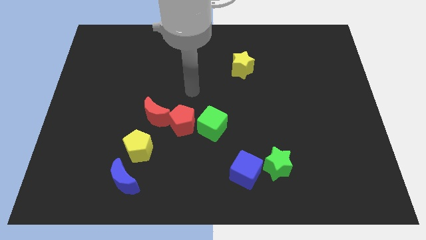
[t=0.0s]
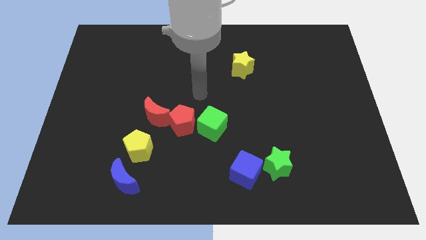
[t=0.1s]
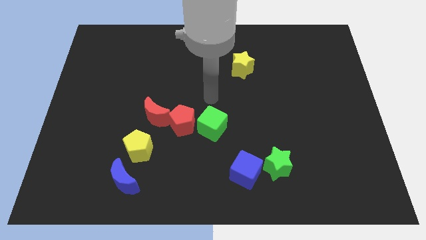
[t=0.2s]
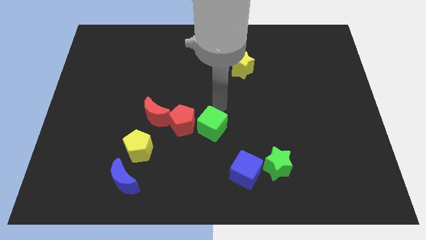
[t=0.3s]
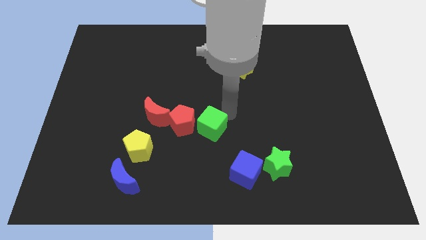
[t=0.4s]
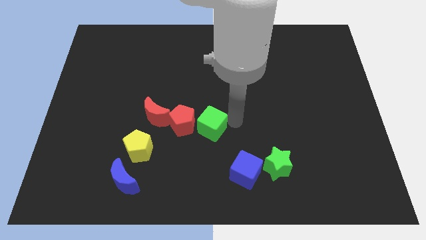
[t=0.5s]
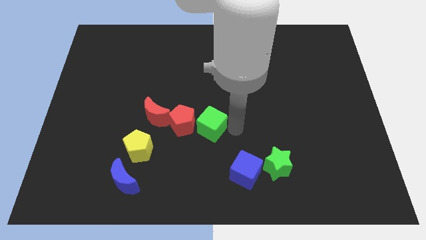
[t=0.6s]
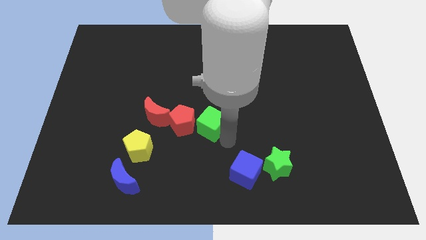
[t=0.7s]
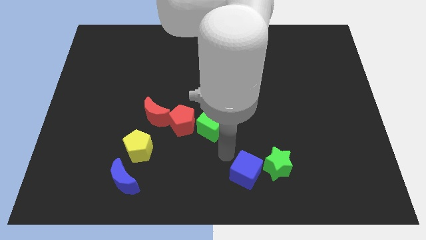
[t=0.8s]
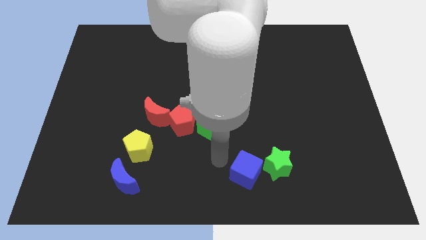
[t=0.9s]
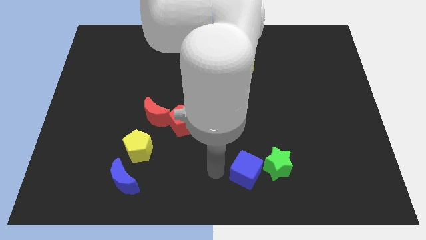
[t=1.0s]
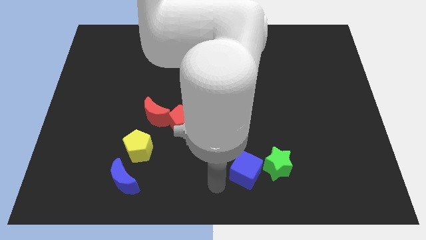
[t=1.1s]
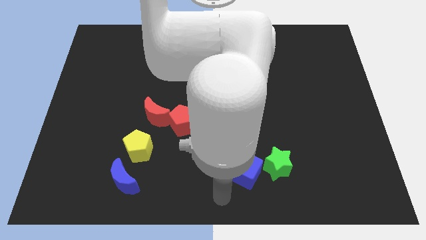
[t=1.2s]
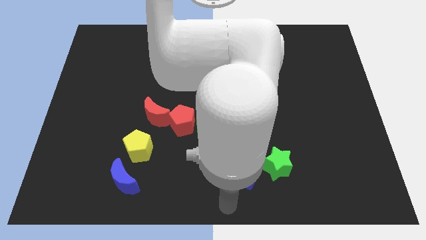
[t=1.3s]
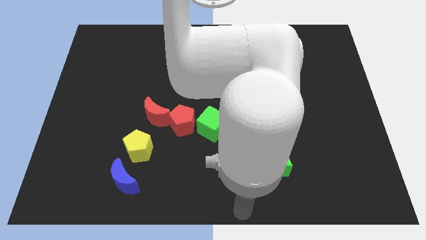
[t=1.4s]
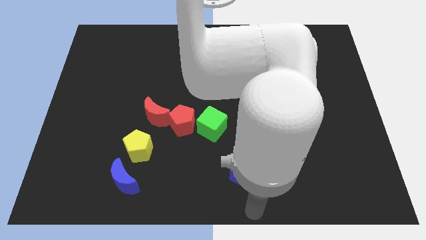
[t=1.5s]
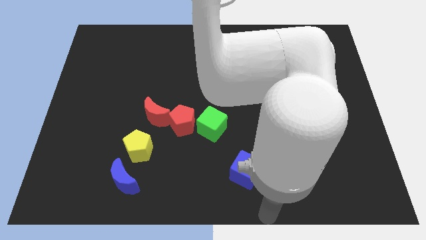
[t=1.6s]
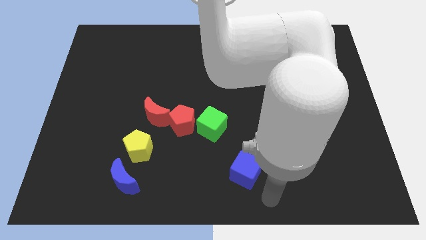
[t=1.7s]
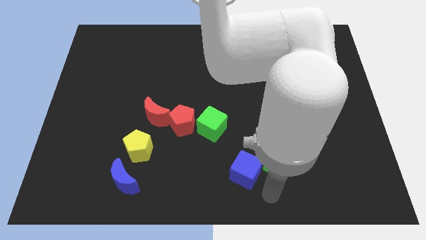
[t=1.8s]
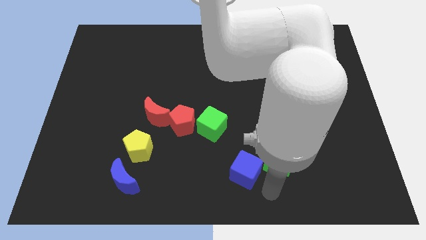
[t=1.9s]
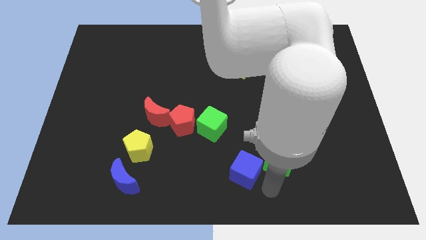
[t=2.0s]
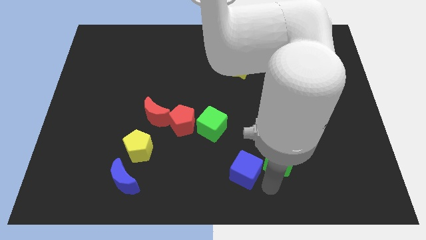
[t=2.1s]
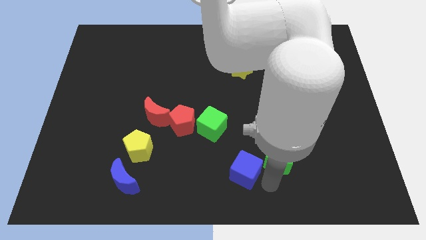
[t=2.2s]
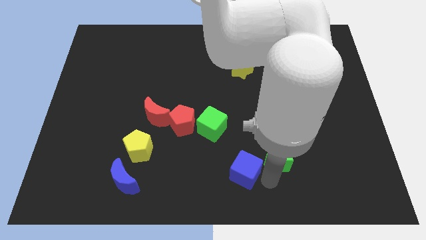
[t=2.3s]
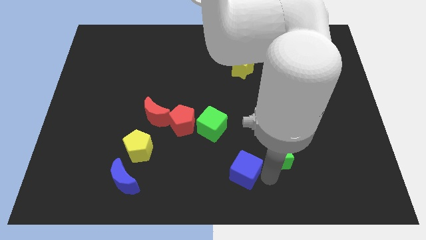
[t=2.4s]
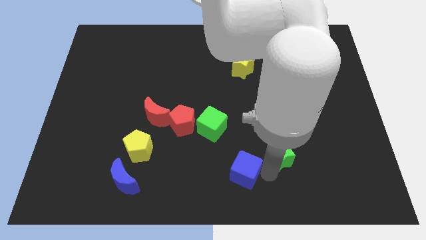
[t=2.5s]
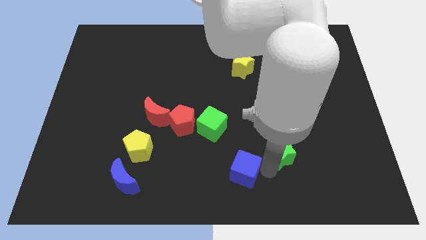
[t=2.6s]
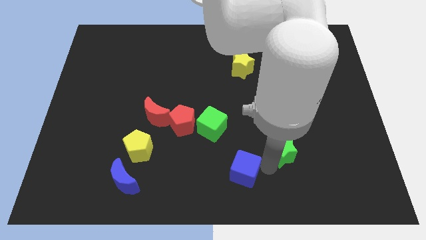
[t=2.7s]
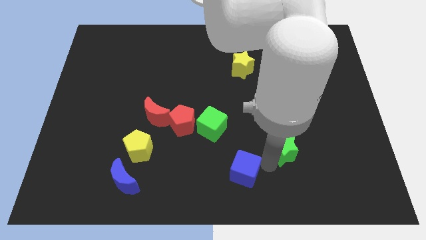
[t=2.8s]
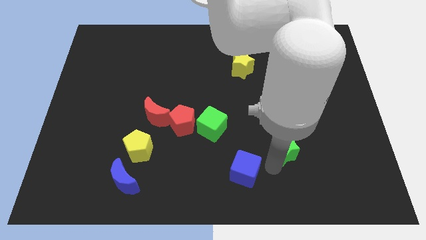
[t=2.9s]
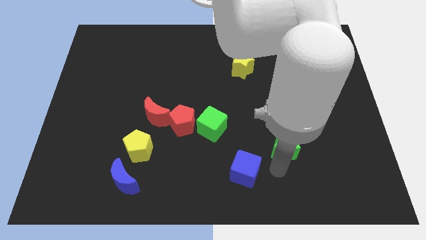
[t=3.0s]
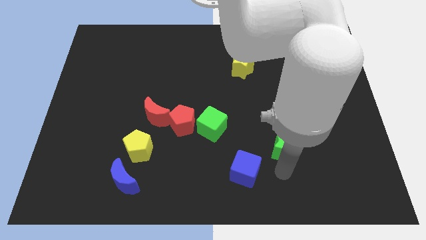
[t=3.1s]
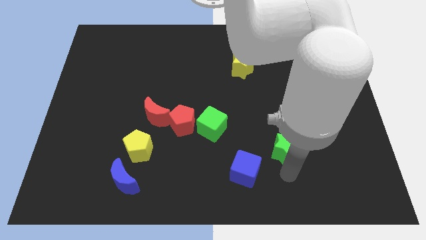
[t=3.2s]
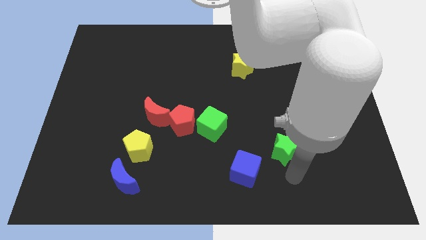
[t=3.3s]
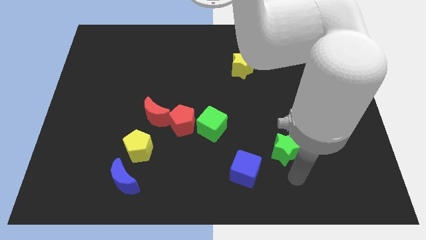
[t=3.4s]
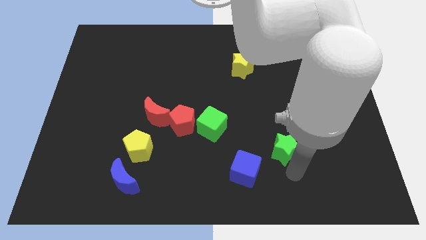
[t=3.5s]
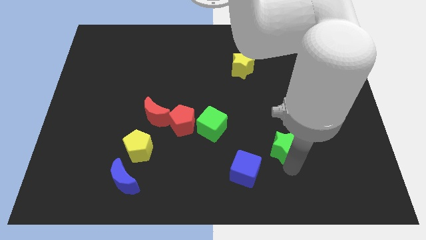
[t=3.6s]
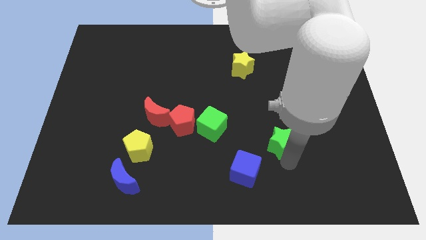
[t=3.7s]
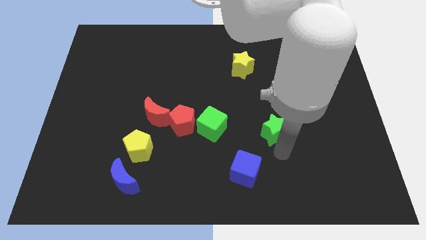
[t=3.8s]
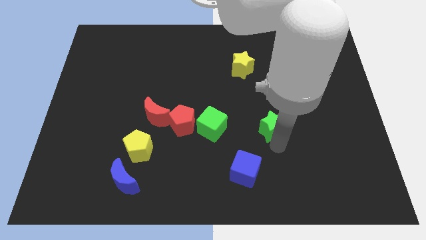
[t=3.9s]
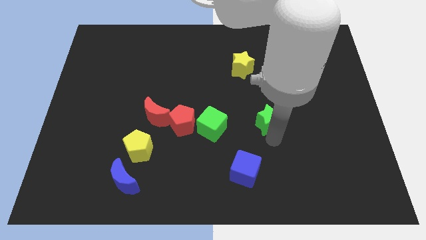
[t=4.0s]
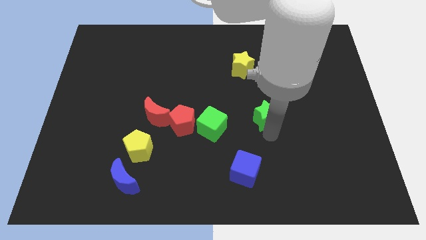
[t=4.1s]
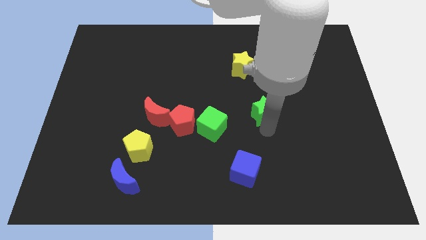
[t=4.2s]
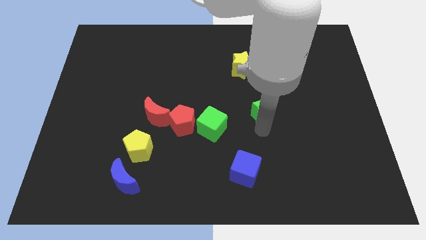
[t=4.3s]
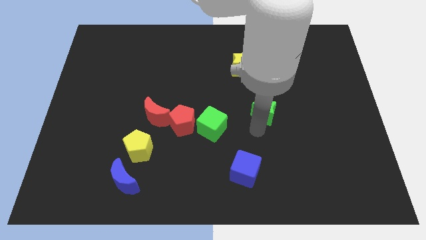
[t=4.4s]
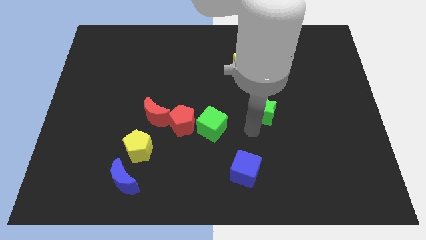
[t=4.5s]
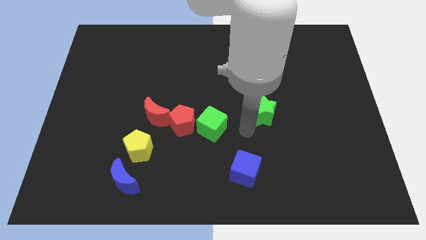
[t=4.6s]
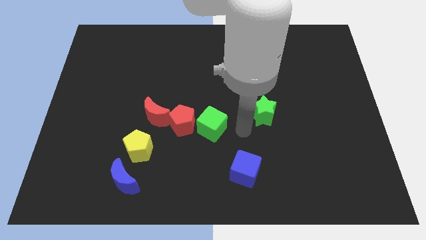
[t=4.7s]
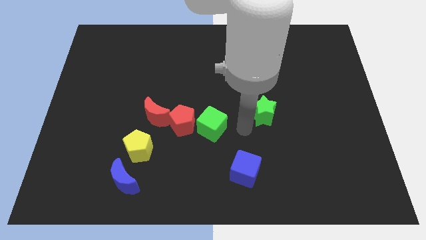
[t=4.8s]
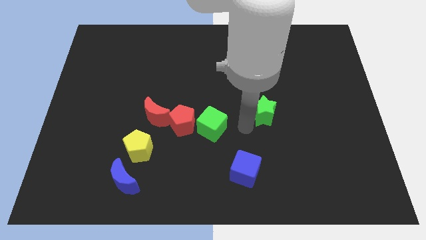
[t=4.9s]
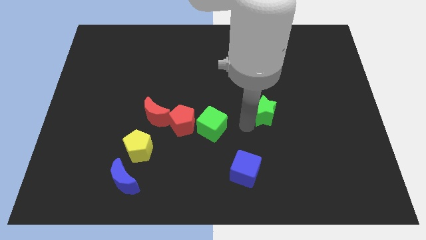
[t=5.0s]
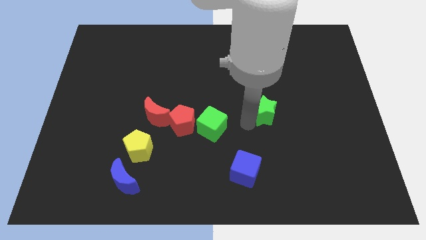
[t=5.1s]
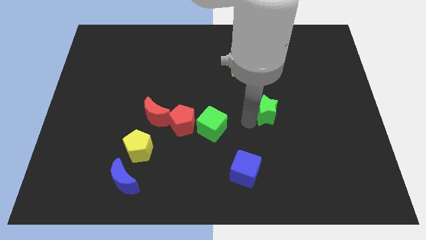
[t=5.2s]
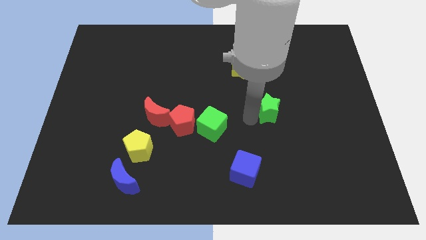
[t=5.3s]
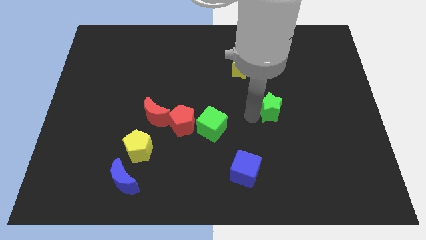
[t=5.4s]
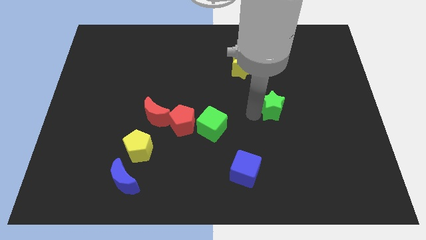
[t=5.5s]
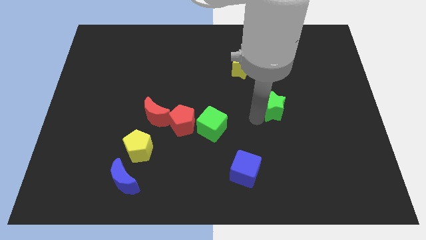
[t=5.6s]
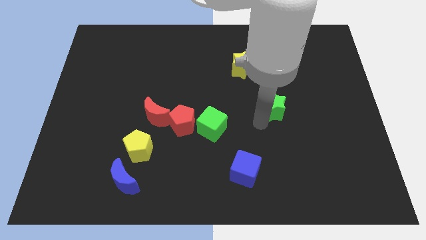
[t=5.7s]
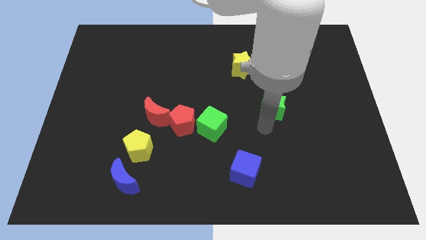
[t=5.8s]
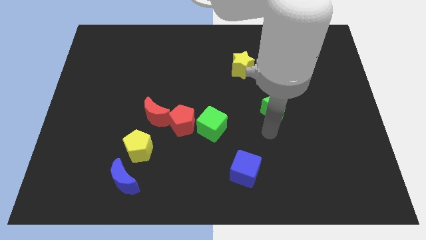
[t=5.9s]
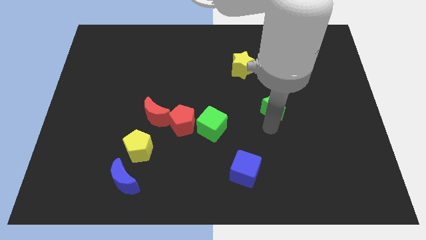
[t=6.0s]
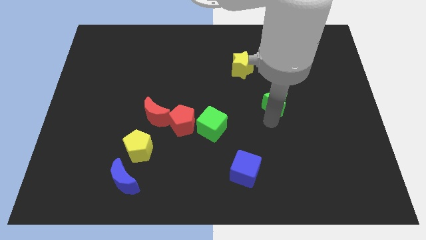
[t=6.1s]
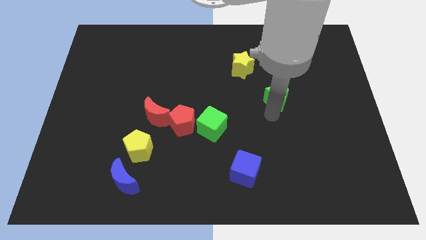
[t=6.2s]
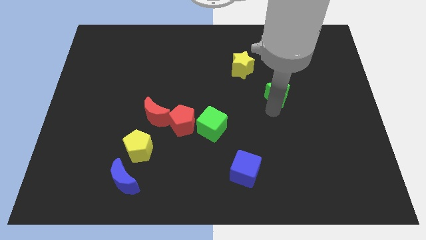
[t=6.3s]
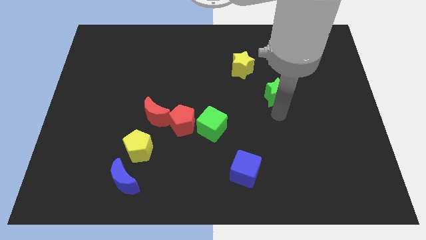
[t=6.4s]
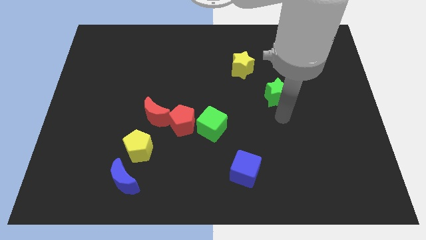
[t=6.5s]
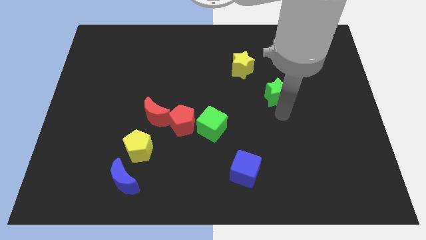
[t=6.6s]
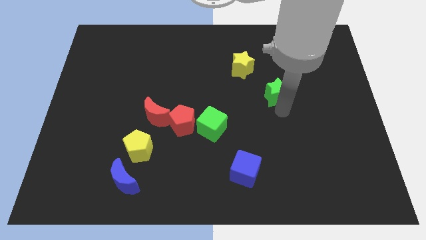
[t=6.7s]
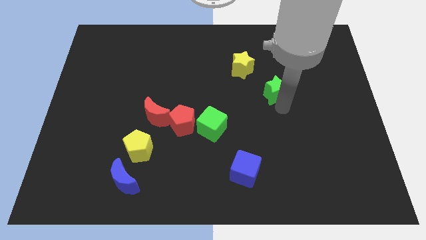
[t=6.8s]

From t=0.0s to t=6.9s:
slide the green star upwards

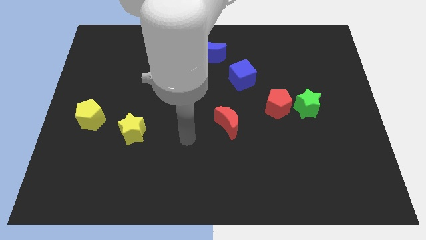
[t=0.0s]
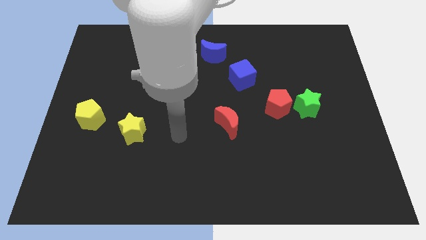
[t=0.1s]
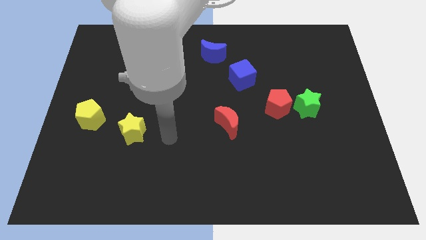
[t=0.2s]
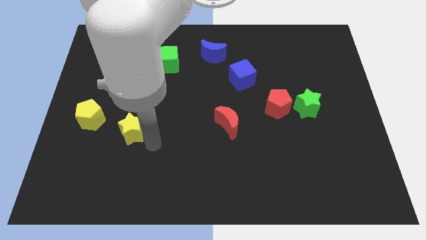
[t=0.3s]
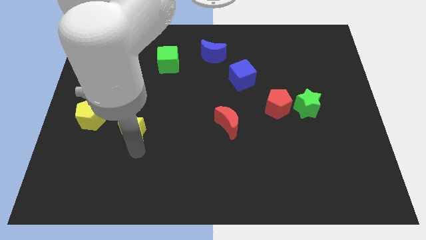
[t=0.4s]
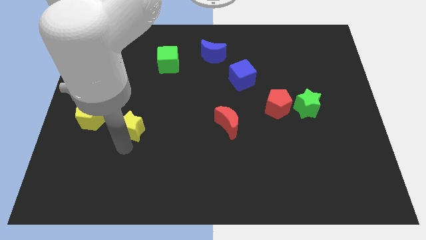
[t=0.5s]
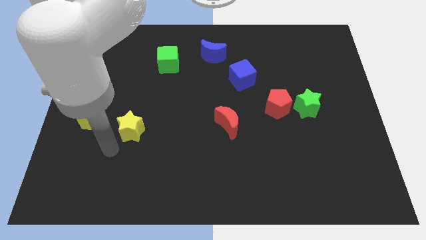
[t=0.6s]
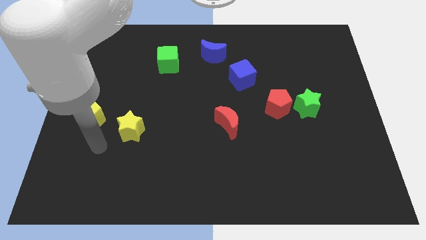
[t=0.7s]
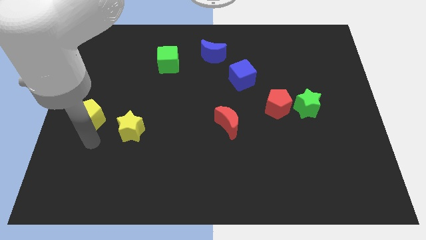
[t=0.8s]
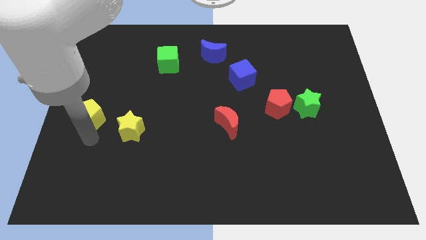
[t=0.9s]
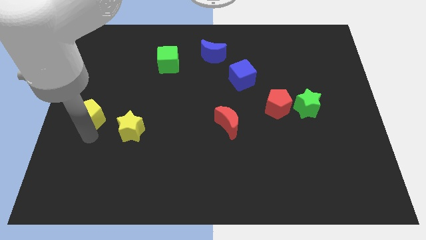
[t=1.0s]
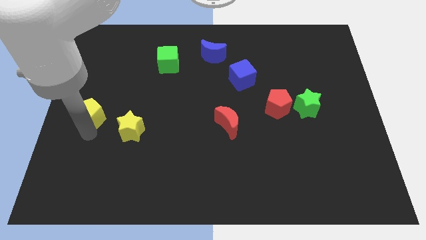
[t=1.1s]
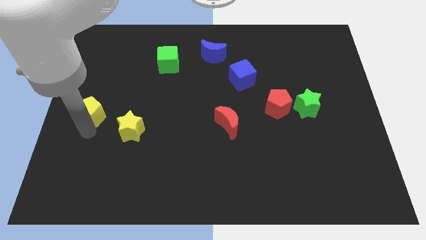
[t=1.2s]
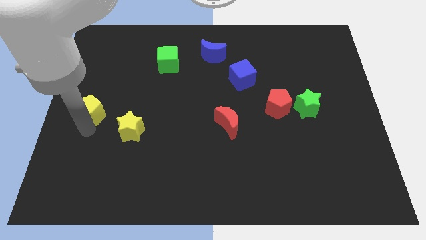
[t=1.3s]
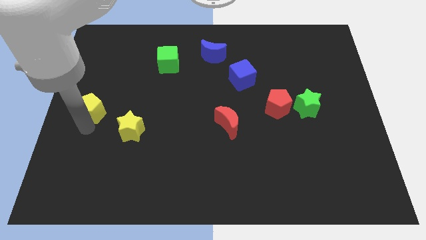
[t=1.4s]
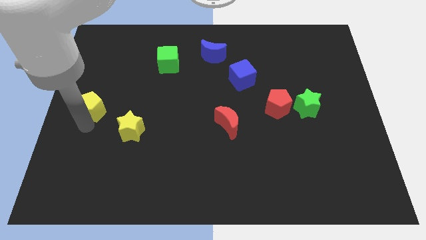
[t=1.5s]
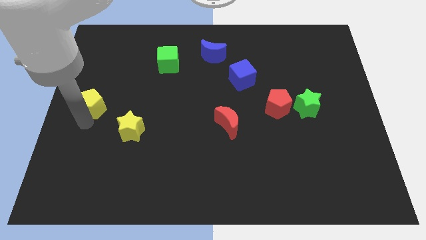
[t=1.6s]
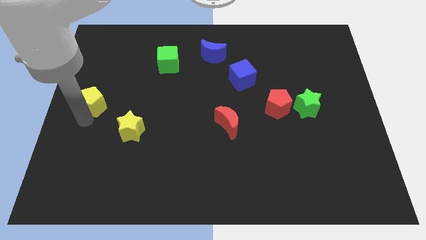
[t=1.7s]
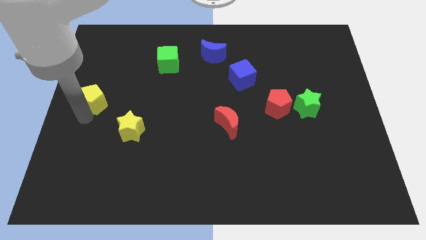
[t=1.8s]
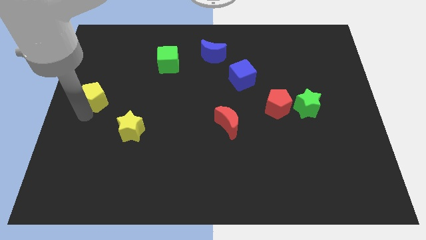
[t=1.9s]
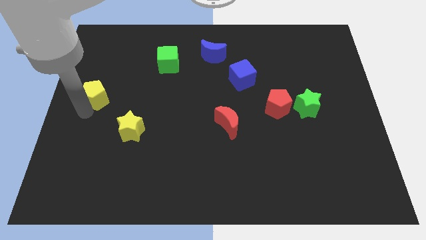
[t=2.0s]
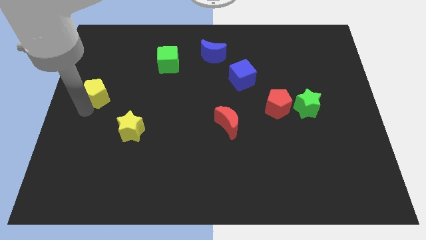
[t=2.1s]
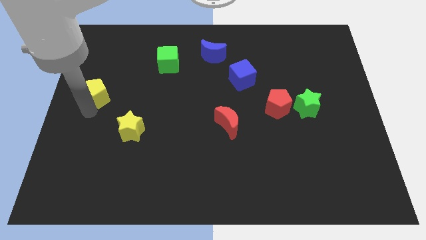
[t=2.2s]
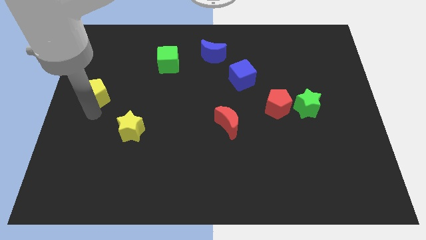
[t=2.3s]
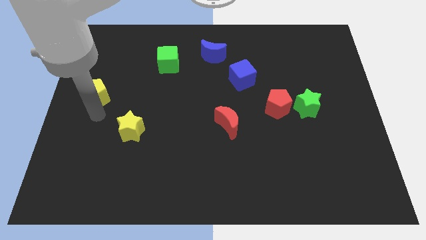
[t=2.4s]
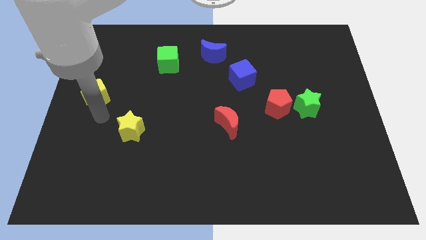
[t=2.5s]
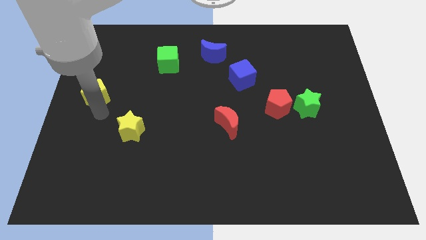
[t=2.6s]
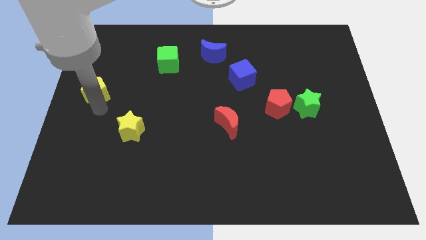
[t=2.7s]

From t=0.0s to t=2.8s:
slide the yellow pentagon a little bit up
